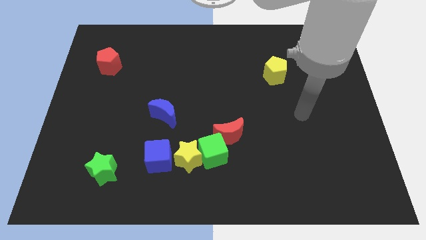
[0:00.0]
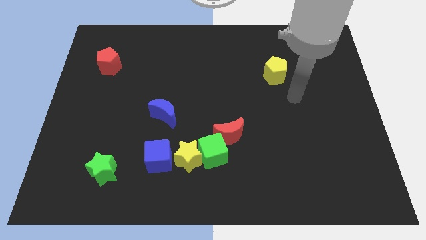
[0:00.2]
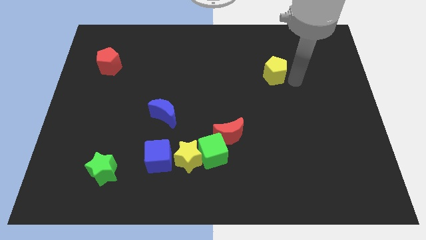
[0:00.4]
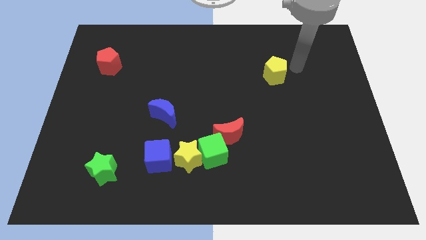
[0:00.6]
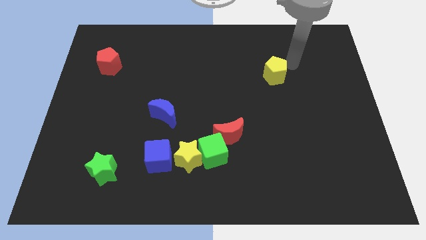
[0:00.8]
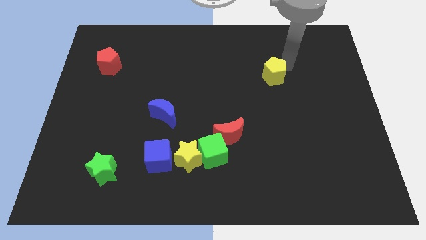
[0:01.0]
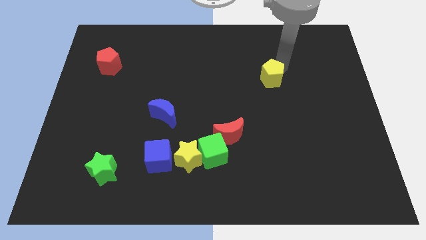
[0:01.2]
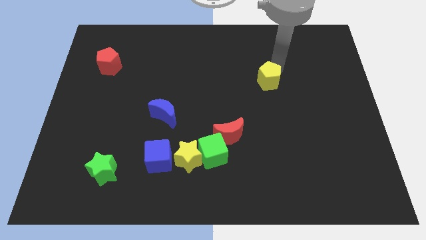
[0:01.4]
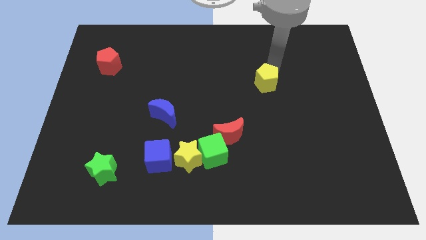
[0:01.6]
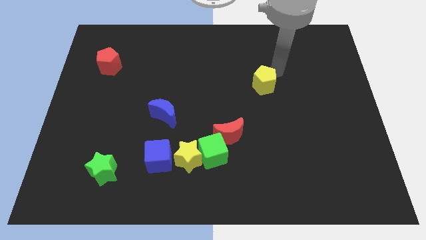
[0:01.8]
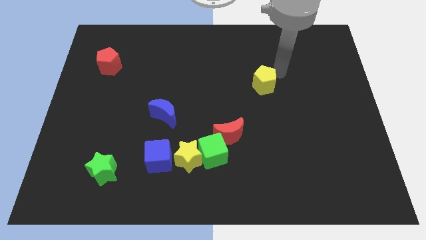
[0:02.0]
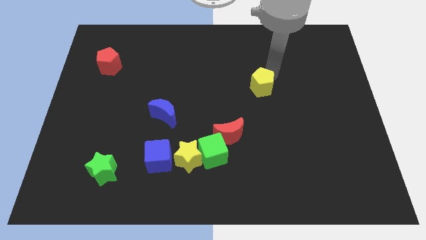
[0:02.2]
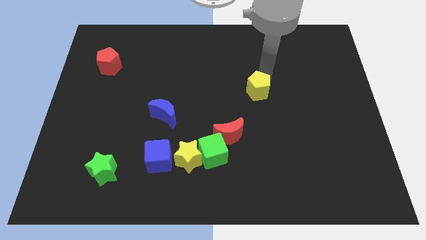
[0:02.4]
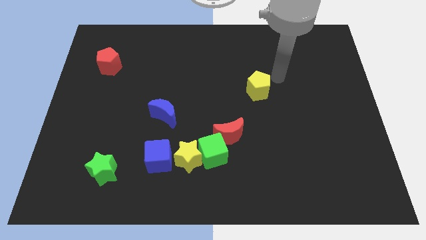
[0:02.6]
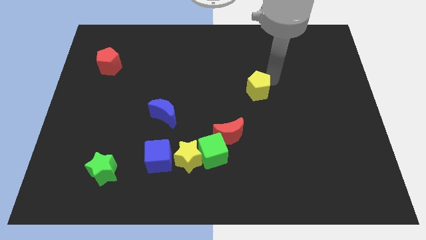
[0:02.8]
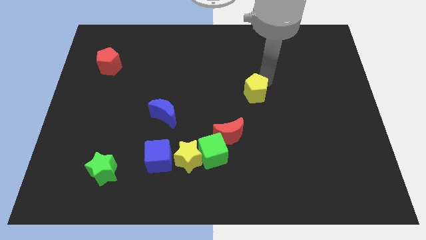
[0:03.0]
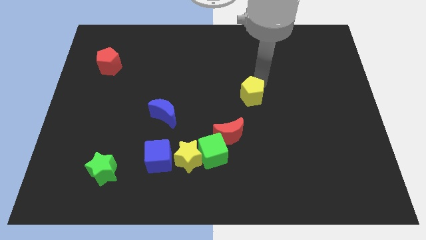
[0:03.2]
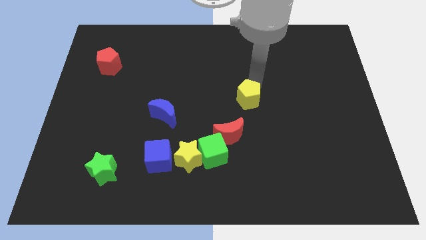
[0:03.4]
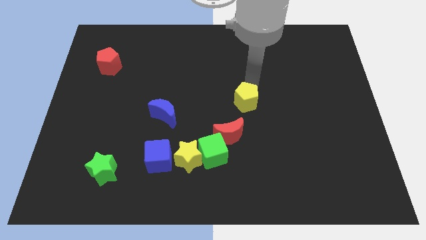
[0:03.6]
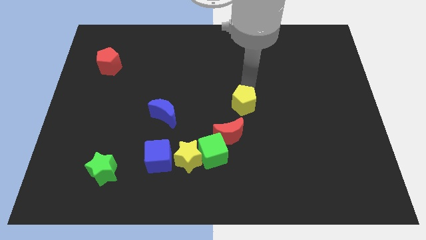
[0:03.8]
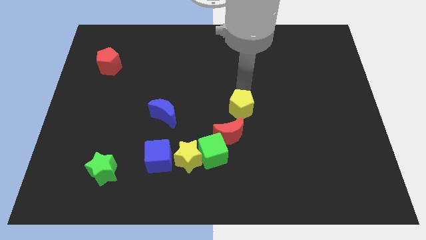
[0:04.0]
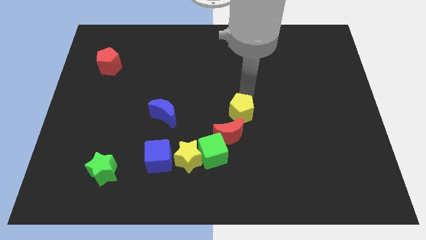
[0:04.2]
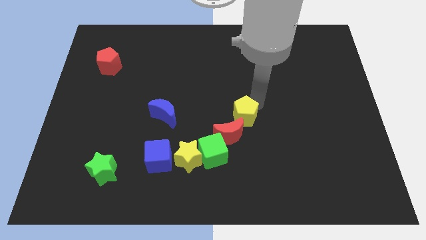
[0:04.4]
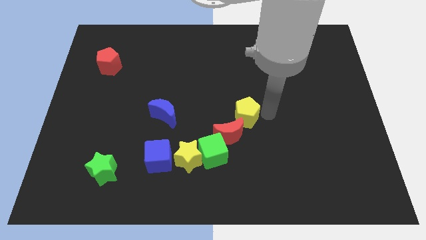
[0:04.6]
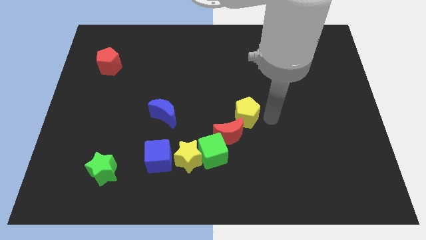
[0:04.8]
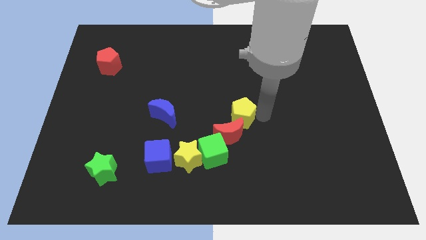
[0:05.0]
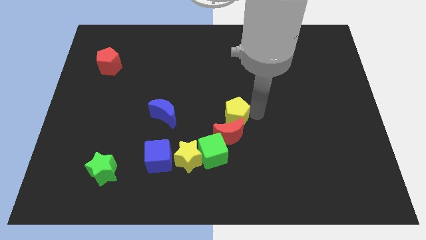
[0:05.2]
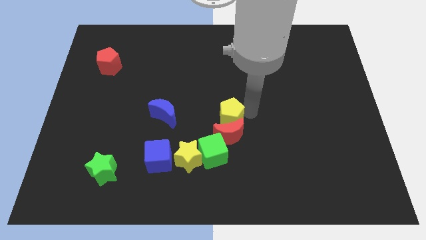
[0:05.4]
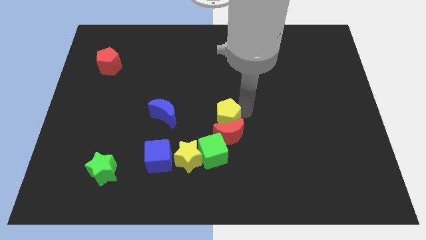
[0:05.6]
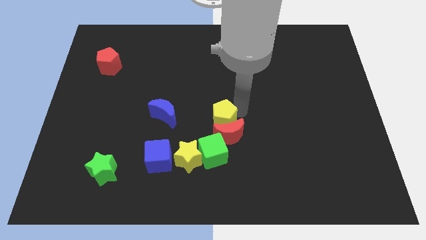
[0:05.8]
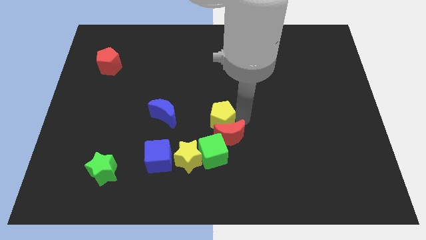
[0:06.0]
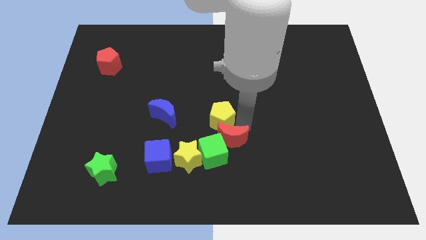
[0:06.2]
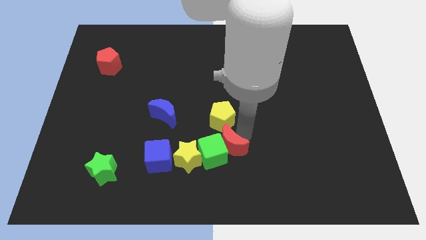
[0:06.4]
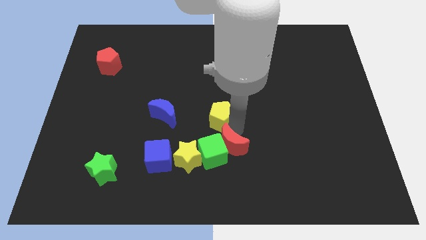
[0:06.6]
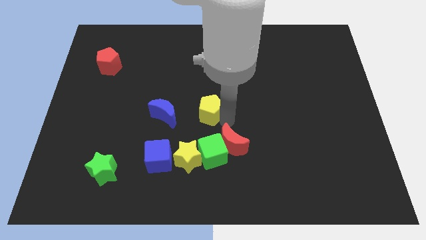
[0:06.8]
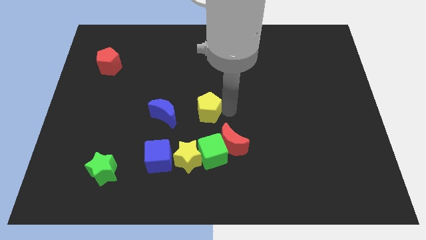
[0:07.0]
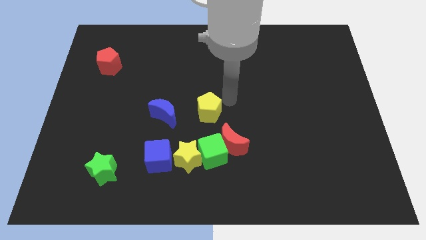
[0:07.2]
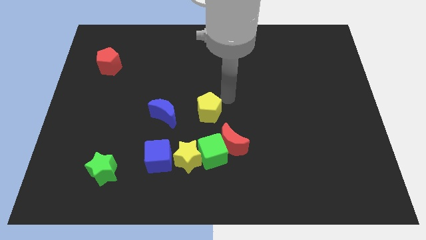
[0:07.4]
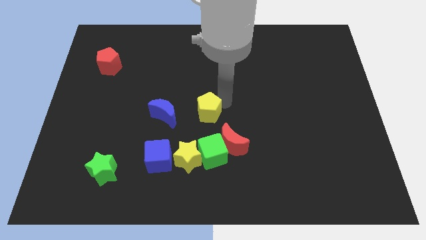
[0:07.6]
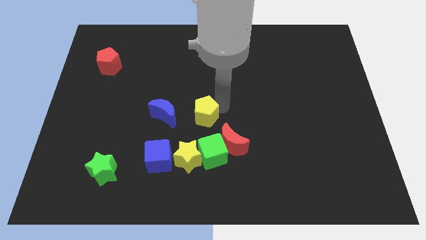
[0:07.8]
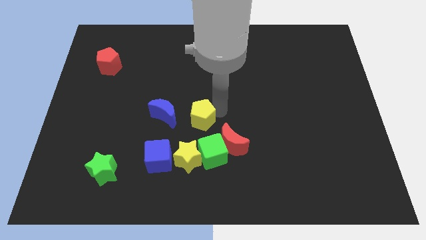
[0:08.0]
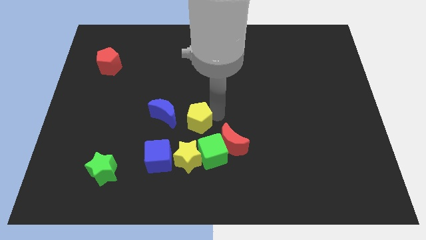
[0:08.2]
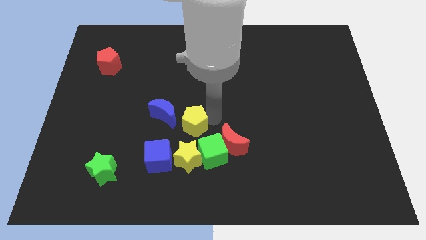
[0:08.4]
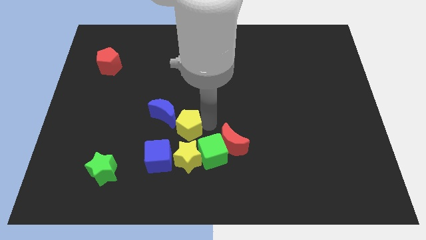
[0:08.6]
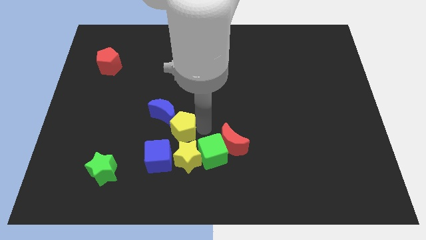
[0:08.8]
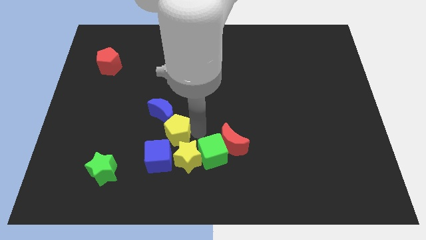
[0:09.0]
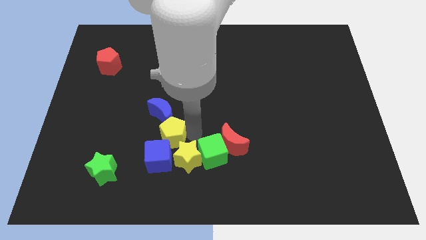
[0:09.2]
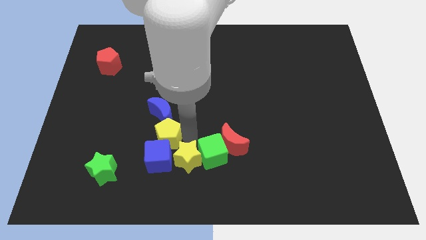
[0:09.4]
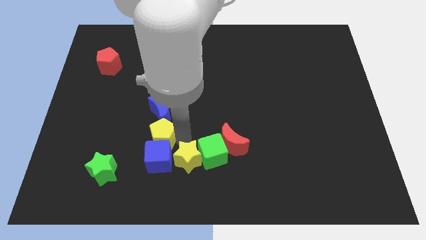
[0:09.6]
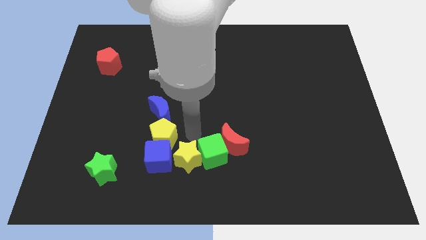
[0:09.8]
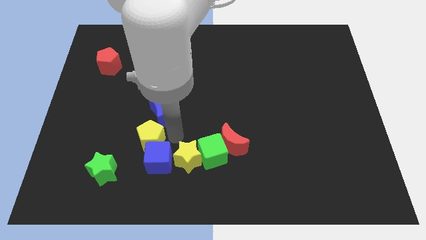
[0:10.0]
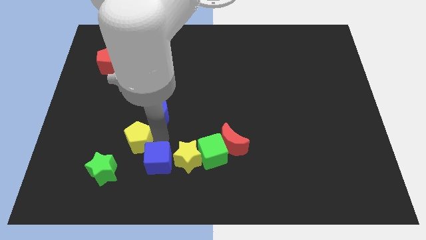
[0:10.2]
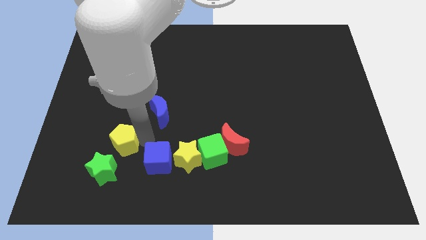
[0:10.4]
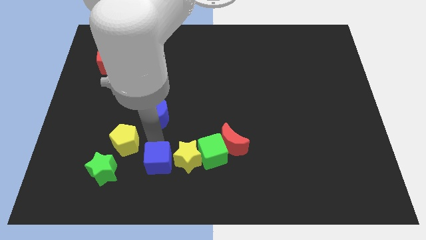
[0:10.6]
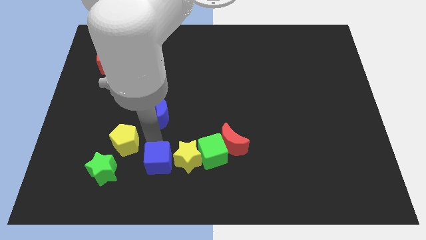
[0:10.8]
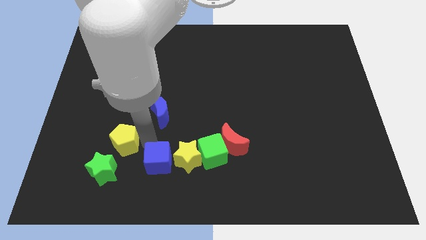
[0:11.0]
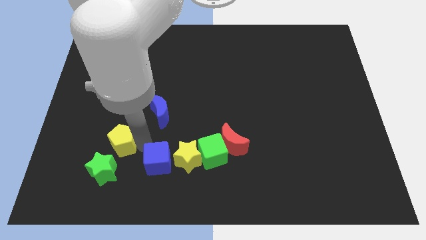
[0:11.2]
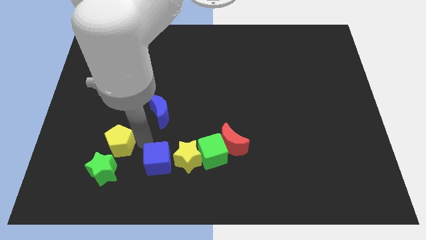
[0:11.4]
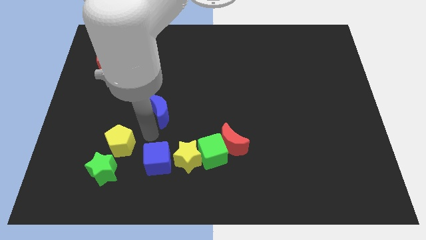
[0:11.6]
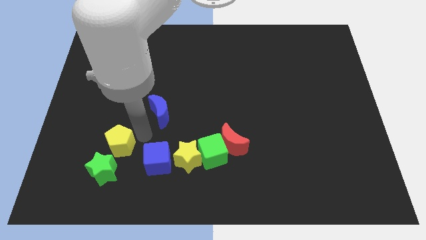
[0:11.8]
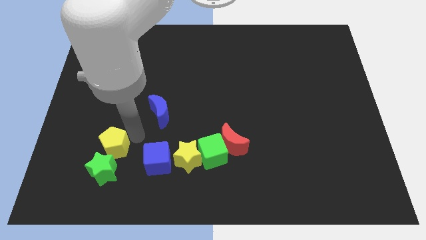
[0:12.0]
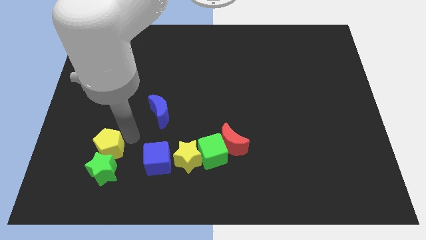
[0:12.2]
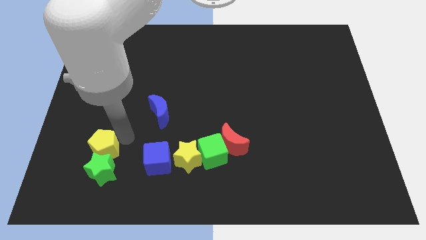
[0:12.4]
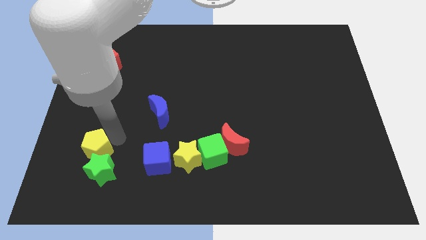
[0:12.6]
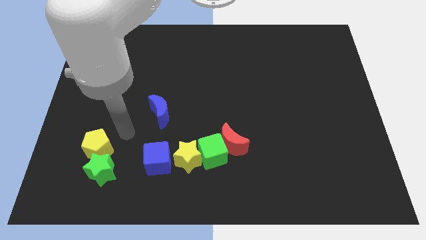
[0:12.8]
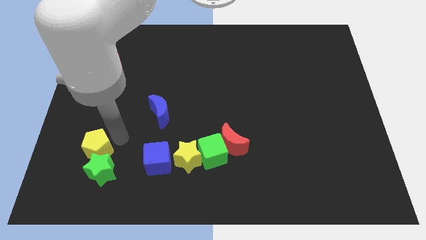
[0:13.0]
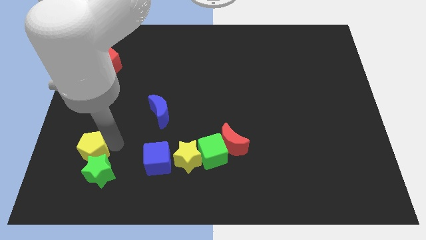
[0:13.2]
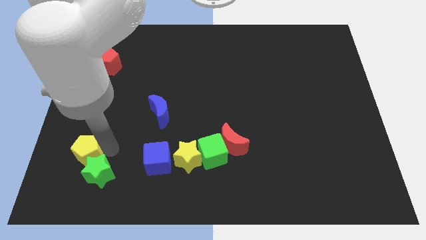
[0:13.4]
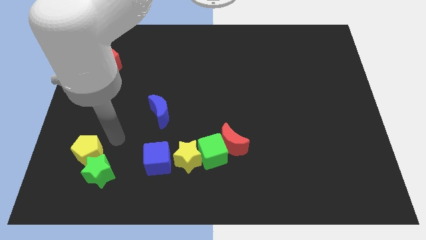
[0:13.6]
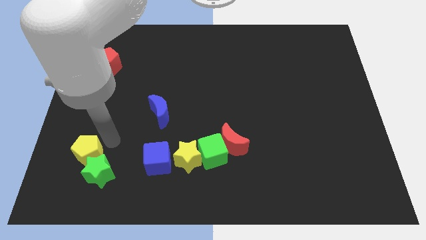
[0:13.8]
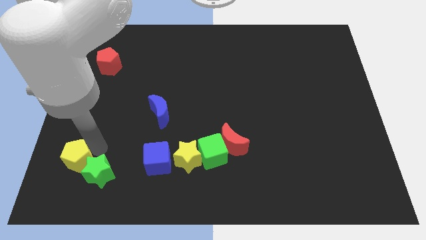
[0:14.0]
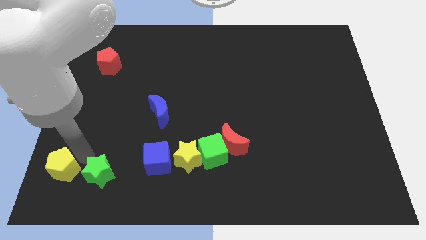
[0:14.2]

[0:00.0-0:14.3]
put the yellow pentagon to the bottom left corner
